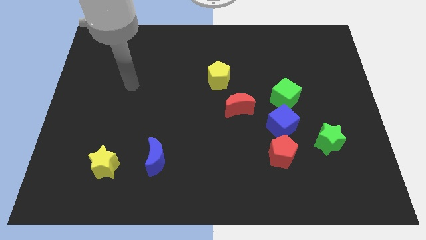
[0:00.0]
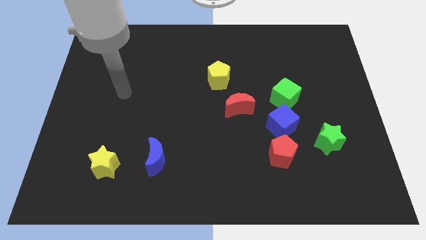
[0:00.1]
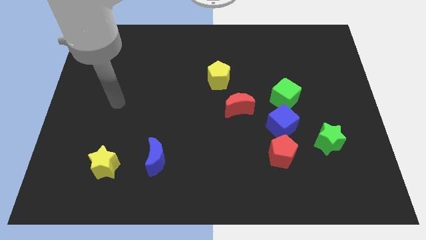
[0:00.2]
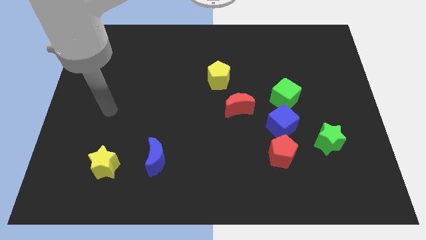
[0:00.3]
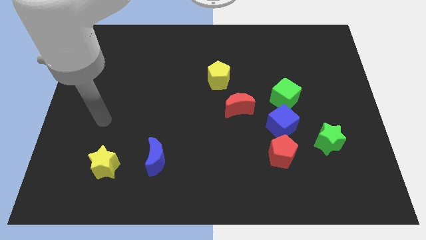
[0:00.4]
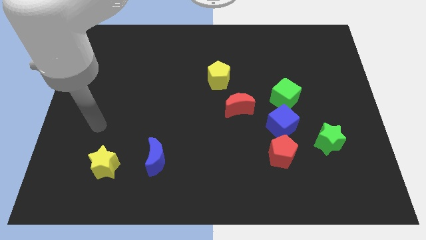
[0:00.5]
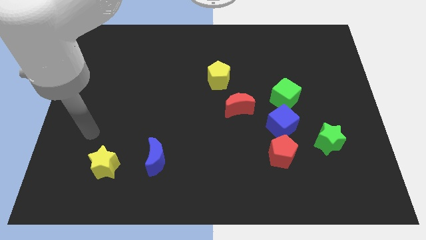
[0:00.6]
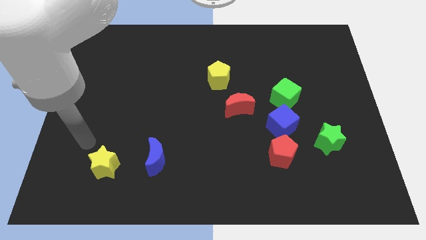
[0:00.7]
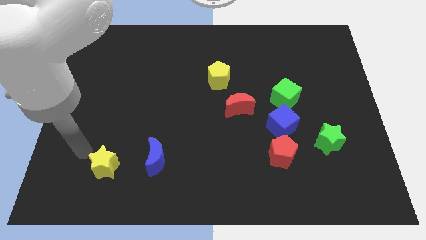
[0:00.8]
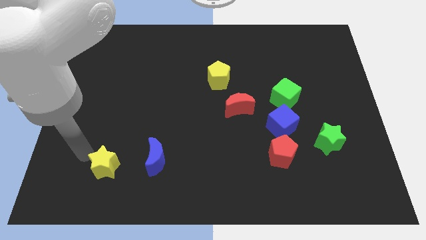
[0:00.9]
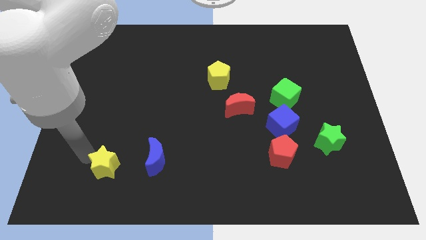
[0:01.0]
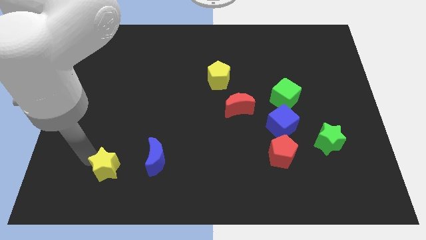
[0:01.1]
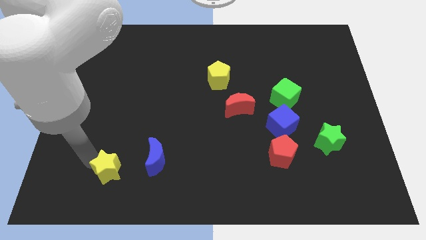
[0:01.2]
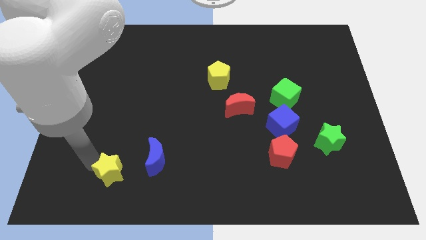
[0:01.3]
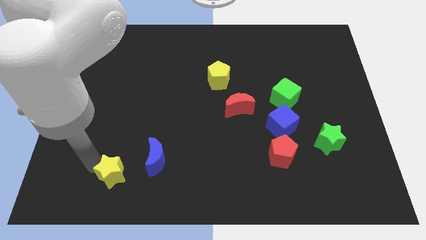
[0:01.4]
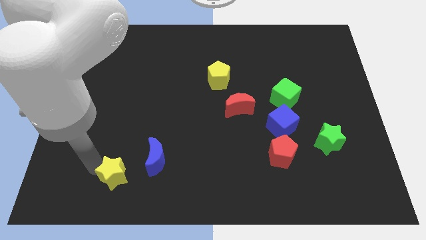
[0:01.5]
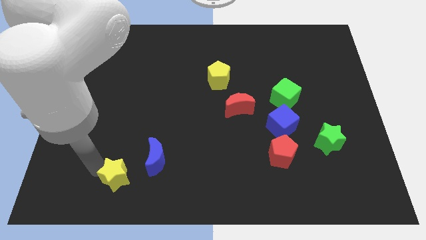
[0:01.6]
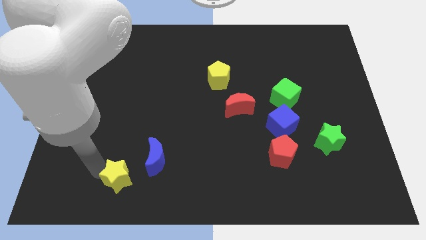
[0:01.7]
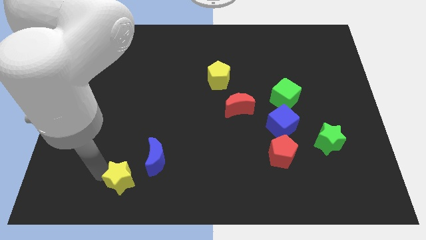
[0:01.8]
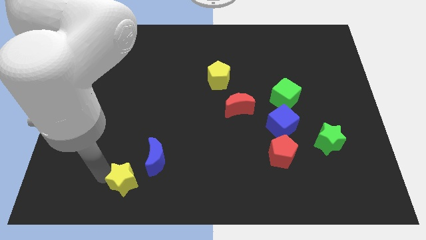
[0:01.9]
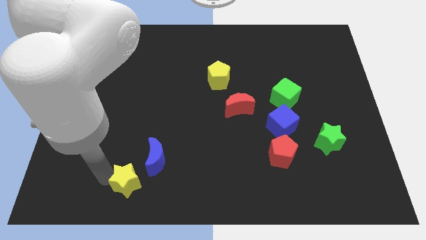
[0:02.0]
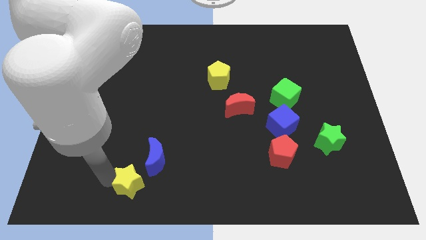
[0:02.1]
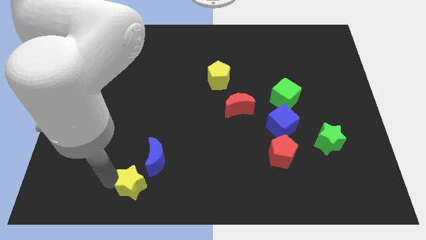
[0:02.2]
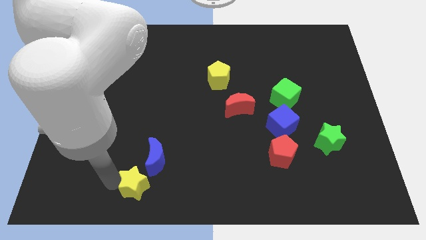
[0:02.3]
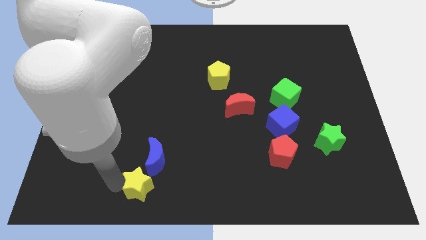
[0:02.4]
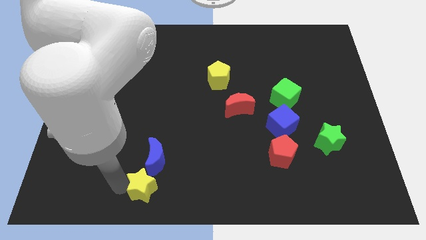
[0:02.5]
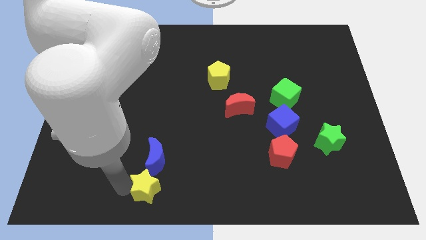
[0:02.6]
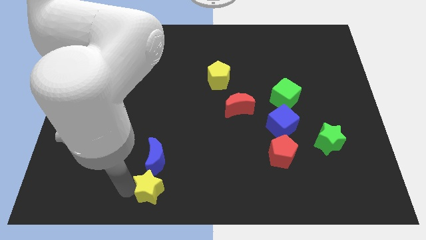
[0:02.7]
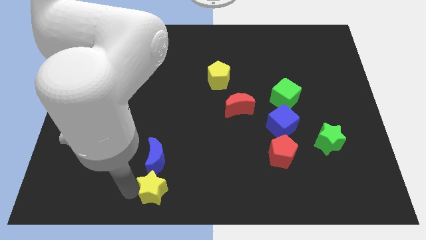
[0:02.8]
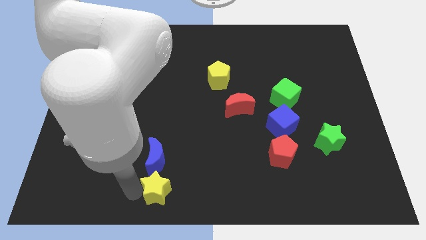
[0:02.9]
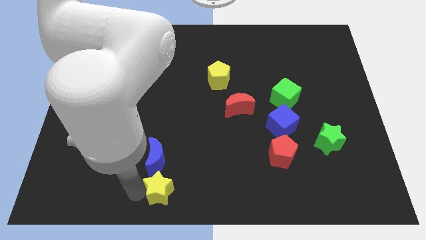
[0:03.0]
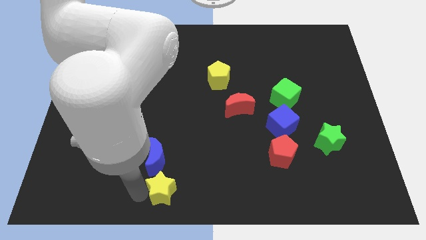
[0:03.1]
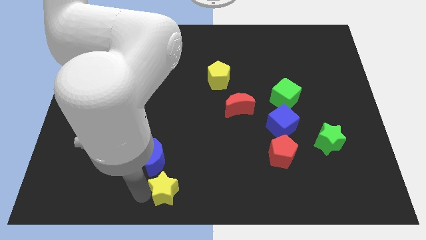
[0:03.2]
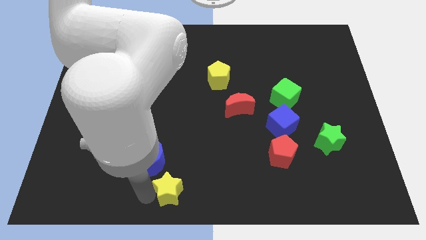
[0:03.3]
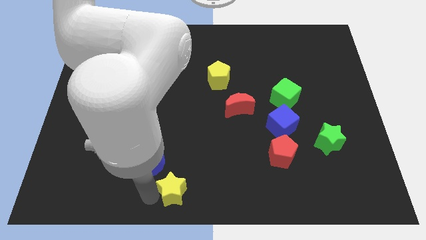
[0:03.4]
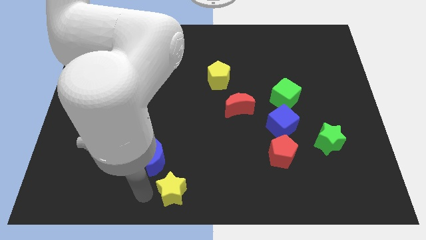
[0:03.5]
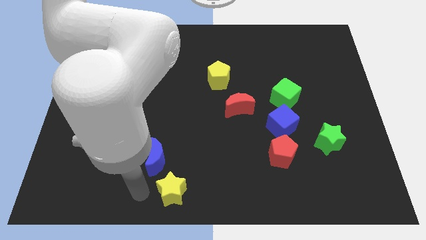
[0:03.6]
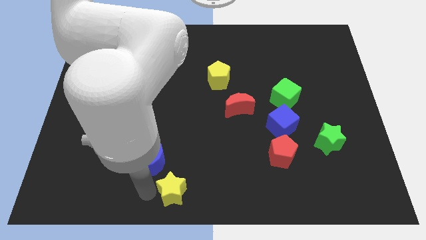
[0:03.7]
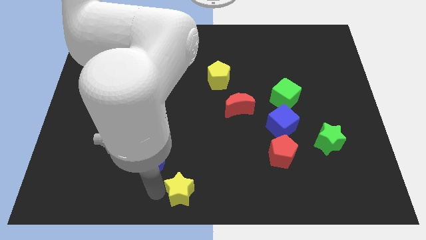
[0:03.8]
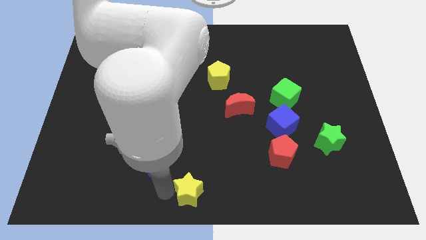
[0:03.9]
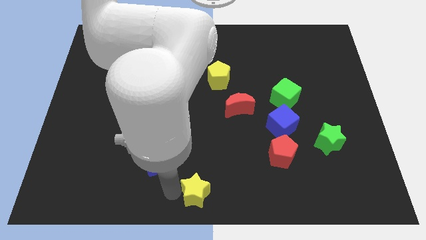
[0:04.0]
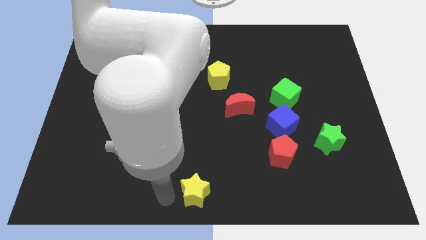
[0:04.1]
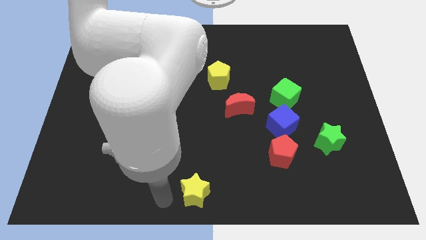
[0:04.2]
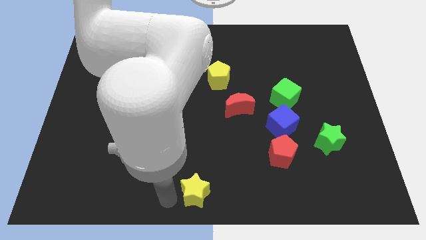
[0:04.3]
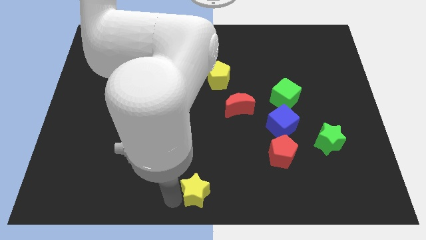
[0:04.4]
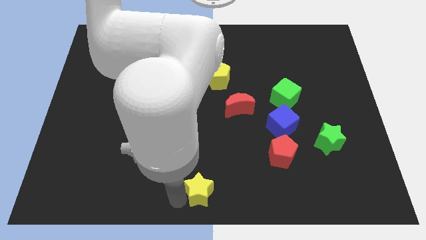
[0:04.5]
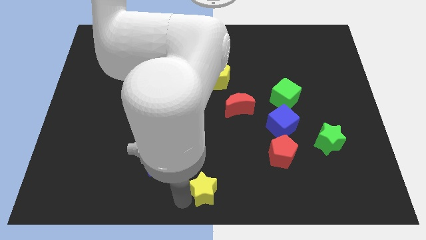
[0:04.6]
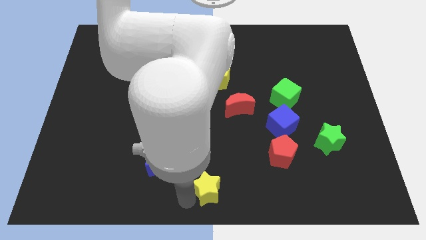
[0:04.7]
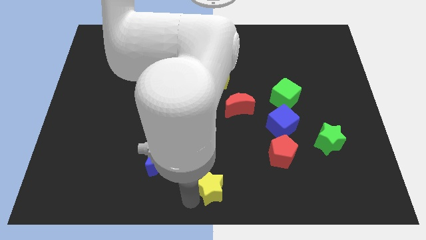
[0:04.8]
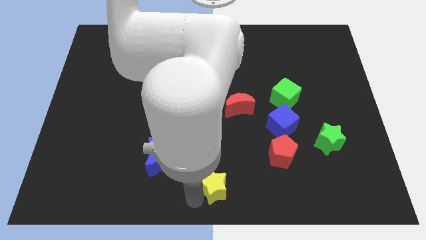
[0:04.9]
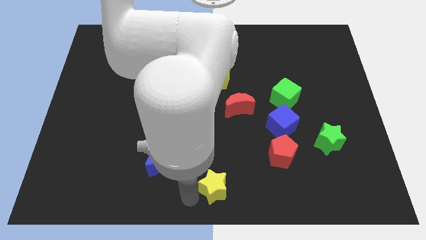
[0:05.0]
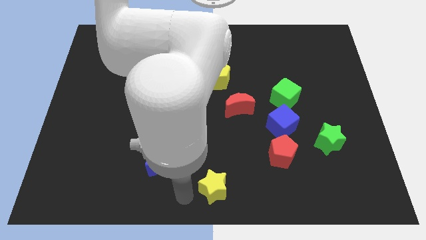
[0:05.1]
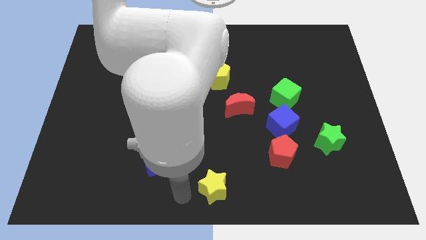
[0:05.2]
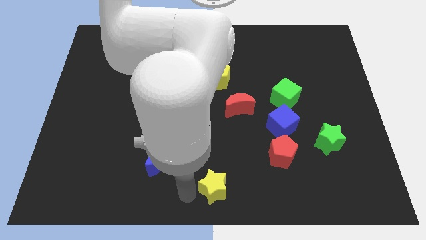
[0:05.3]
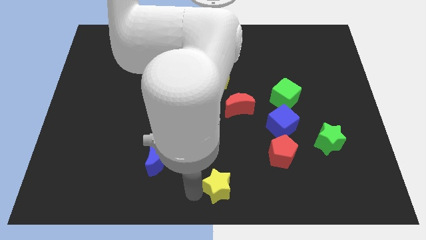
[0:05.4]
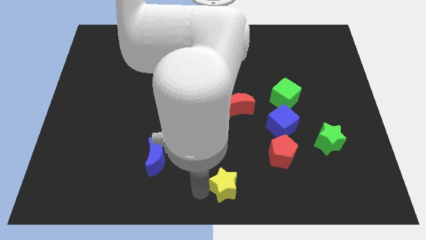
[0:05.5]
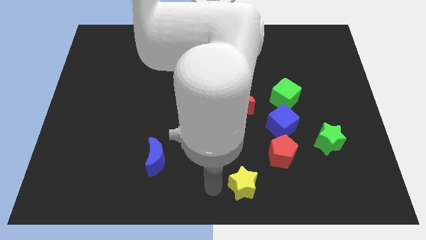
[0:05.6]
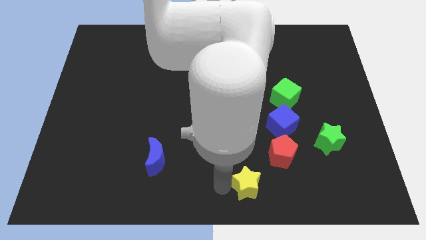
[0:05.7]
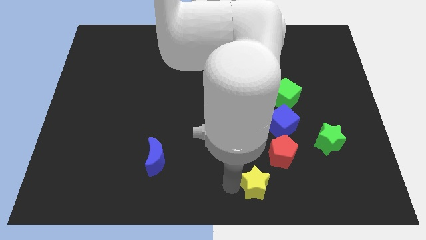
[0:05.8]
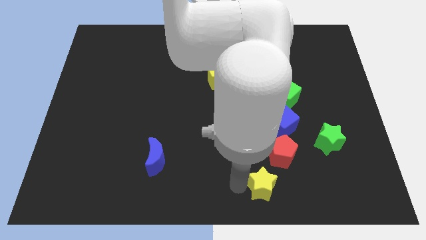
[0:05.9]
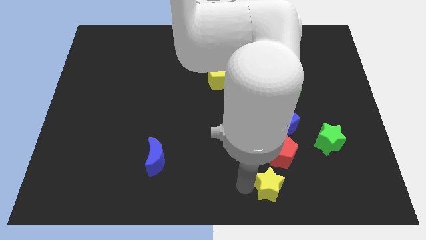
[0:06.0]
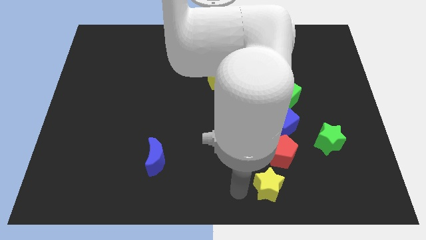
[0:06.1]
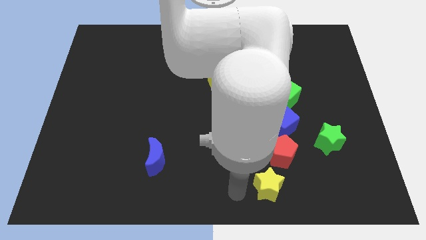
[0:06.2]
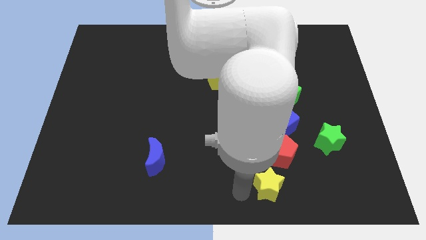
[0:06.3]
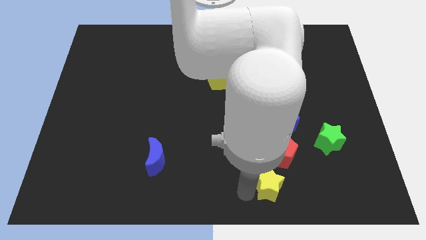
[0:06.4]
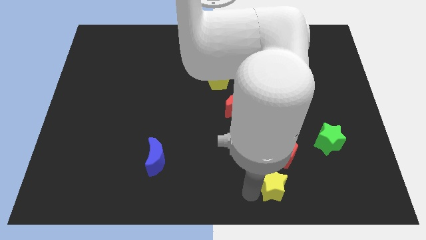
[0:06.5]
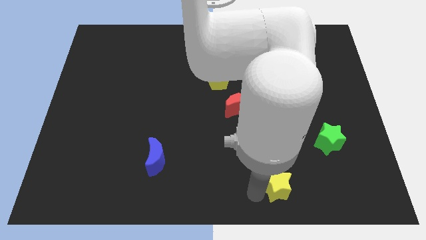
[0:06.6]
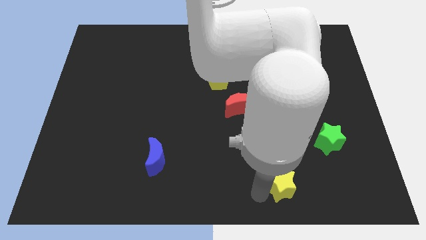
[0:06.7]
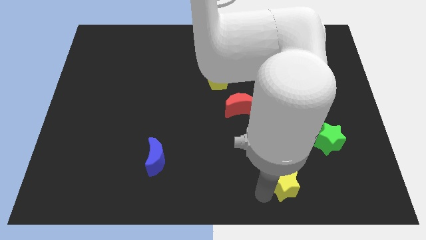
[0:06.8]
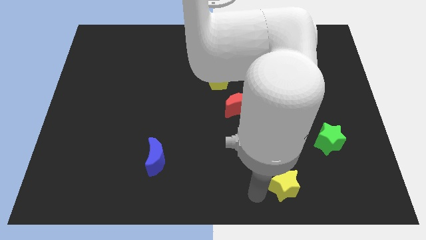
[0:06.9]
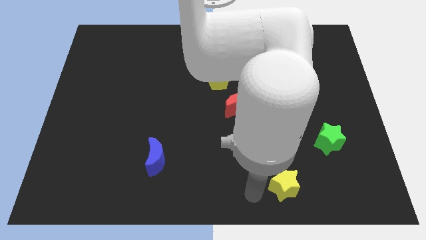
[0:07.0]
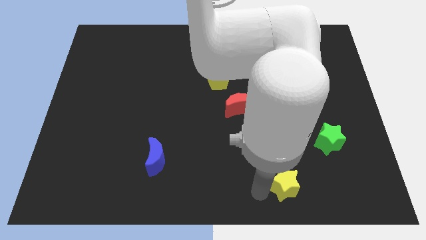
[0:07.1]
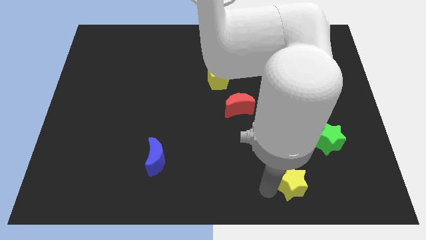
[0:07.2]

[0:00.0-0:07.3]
slide the yellow star diagonally down and to the right of the red pentagon
